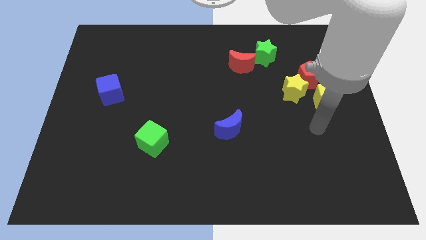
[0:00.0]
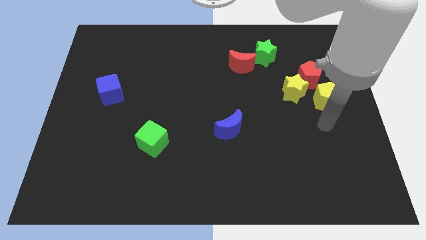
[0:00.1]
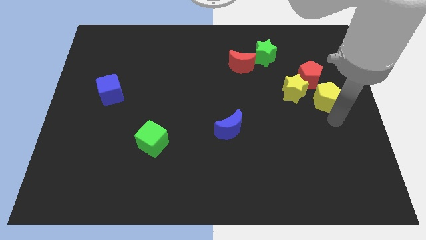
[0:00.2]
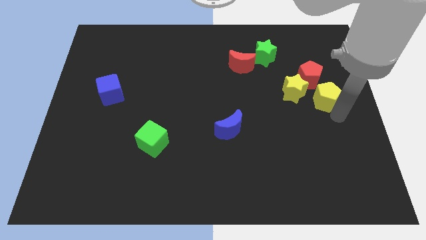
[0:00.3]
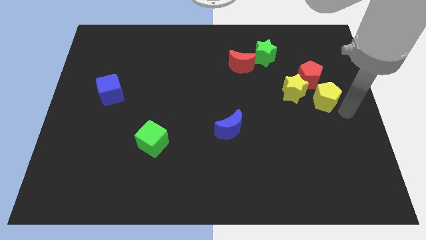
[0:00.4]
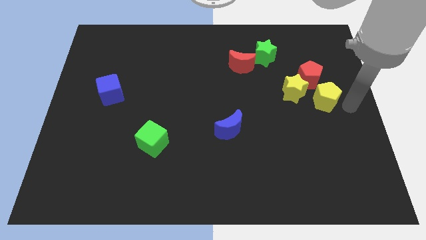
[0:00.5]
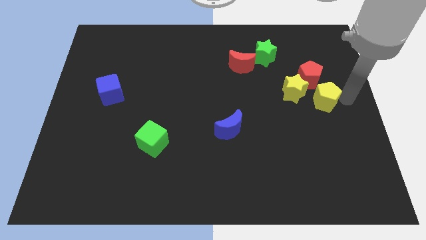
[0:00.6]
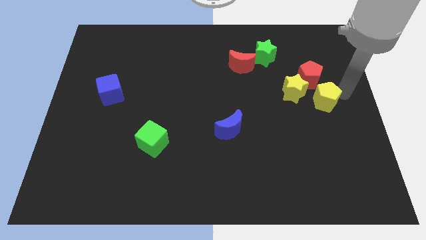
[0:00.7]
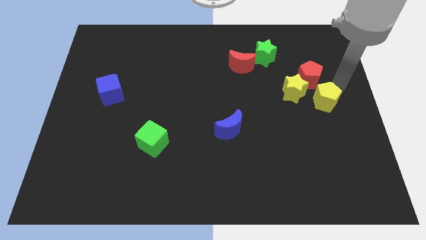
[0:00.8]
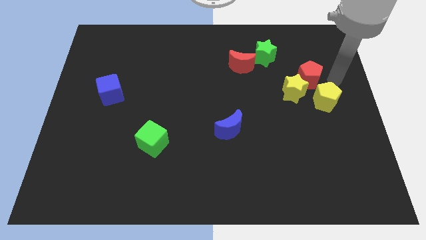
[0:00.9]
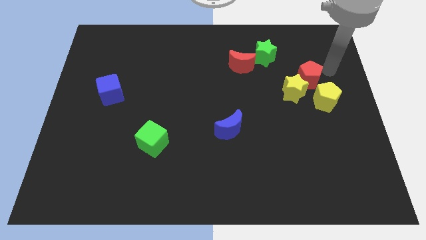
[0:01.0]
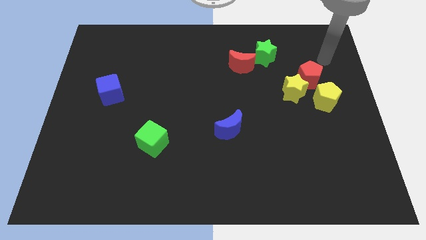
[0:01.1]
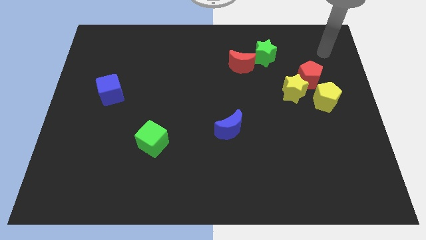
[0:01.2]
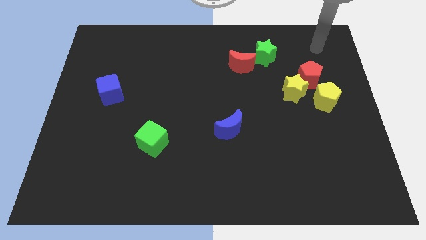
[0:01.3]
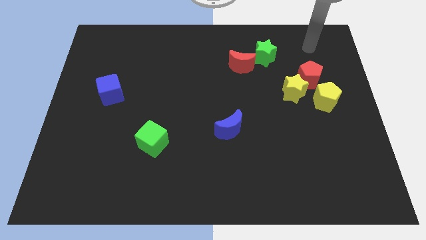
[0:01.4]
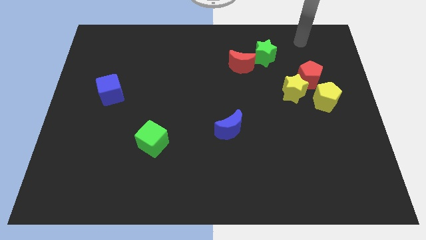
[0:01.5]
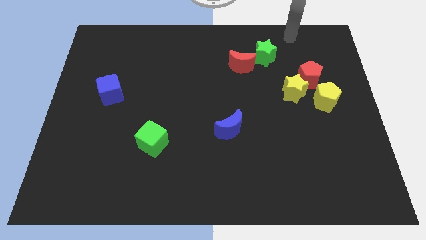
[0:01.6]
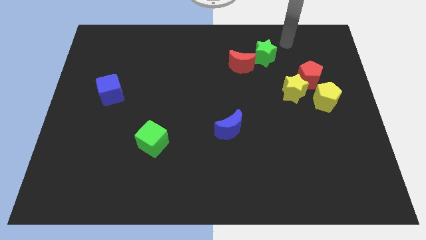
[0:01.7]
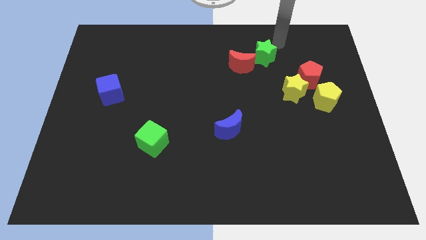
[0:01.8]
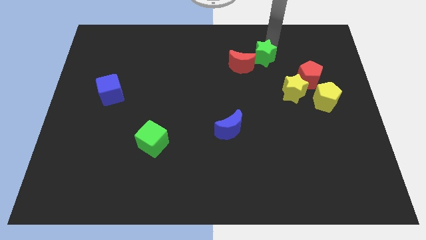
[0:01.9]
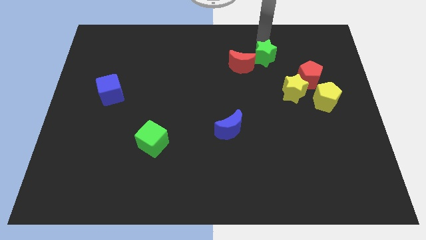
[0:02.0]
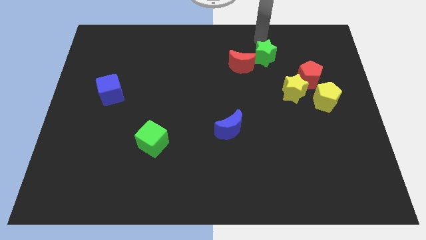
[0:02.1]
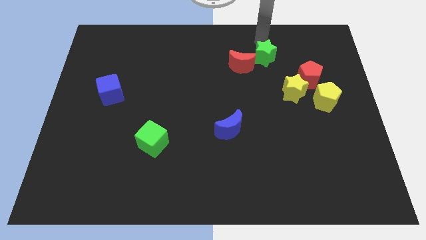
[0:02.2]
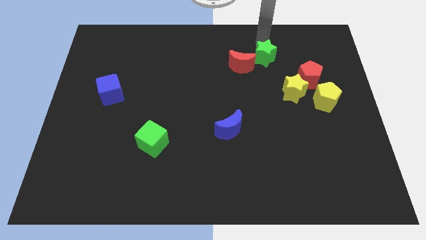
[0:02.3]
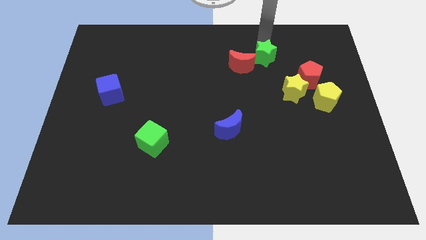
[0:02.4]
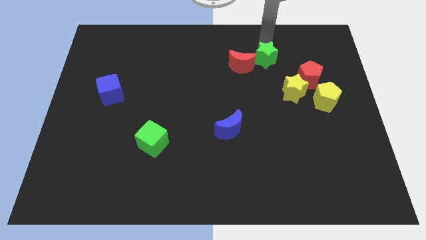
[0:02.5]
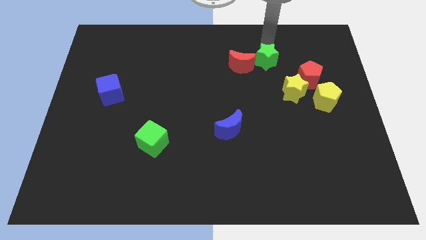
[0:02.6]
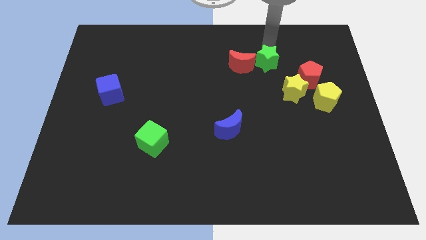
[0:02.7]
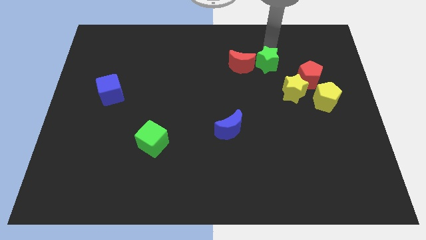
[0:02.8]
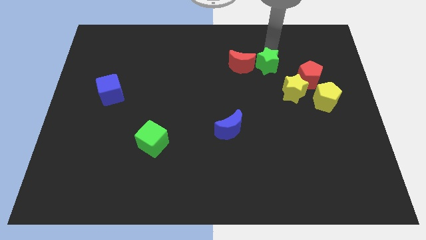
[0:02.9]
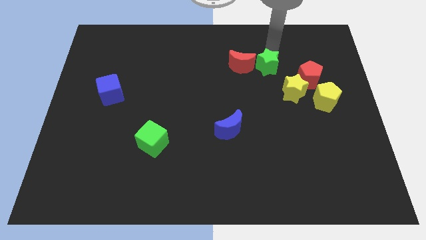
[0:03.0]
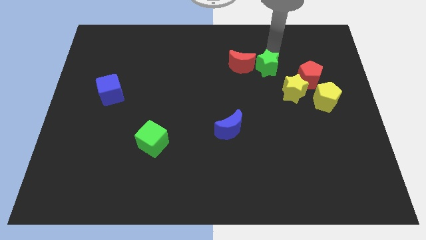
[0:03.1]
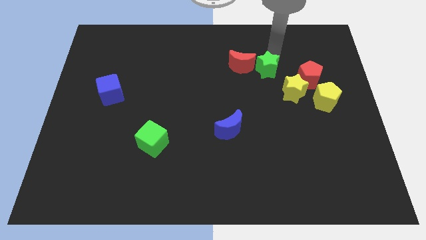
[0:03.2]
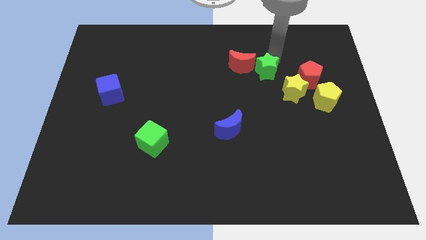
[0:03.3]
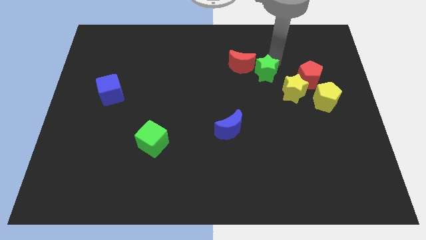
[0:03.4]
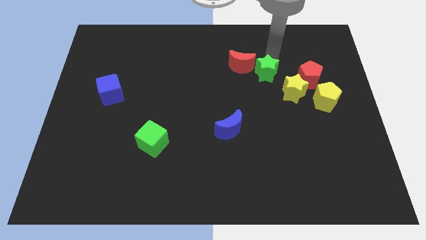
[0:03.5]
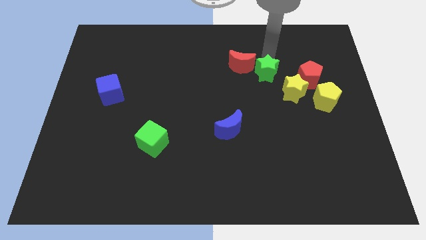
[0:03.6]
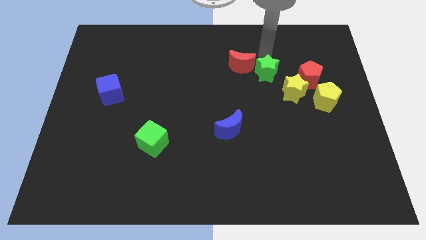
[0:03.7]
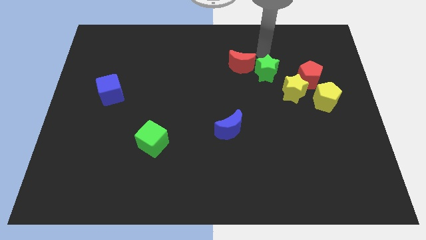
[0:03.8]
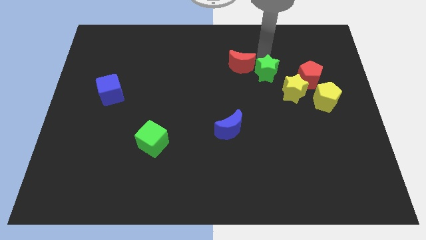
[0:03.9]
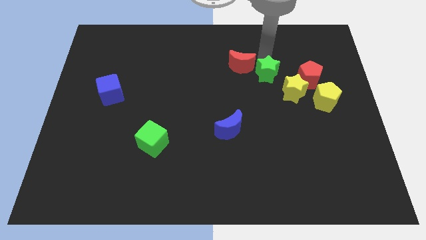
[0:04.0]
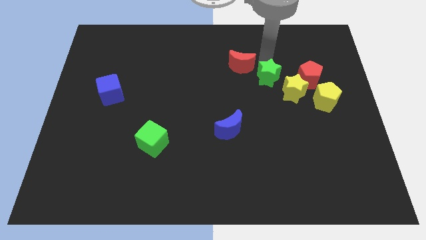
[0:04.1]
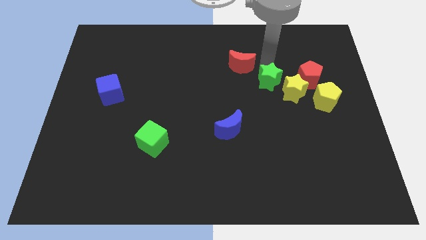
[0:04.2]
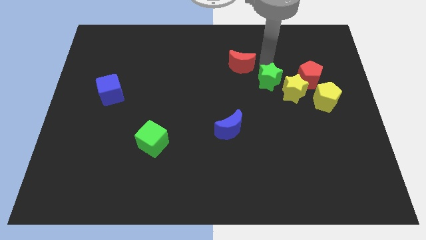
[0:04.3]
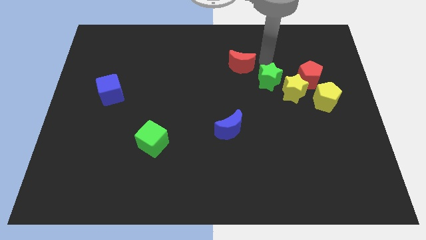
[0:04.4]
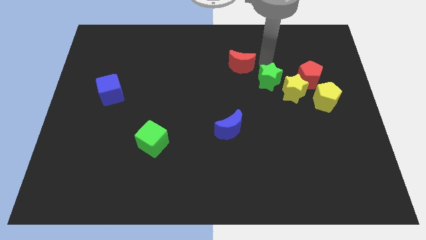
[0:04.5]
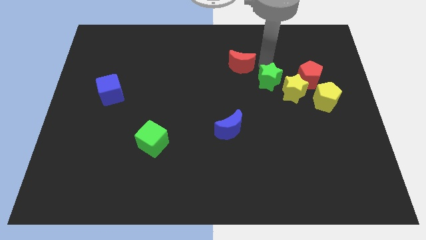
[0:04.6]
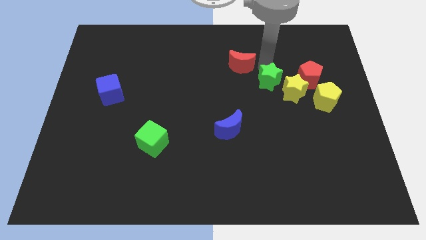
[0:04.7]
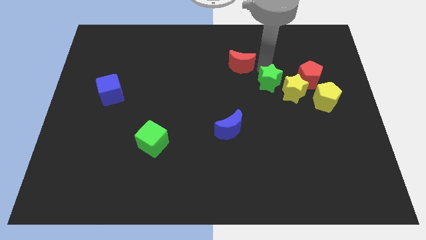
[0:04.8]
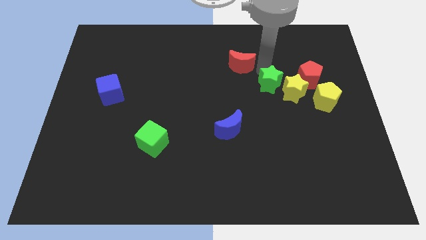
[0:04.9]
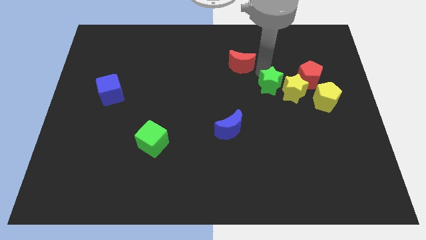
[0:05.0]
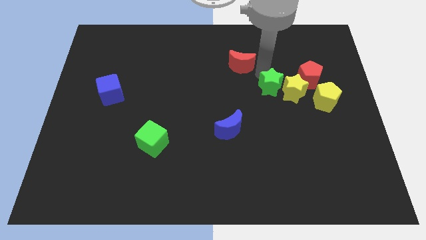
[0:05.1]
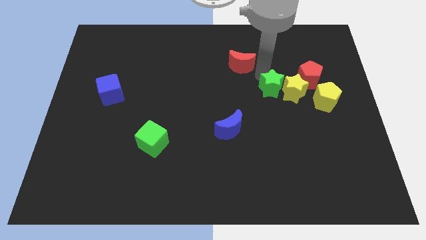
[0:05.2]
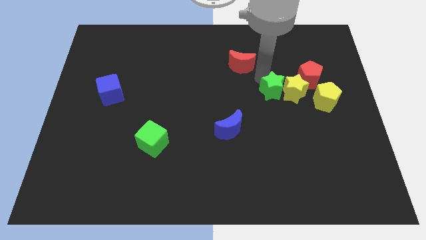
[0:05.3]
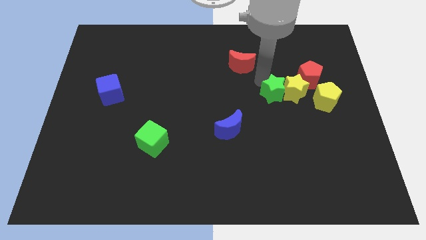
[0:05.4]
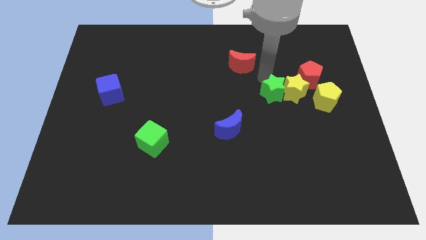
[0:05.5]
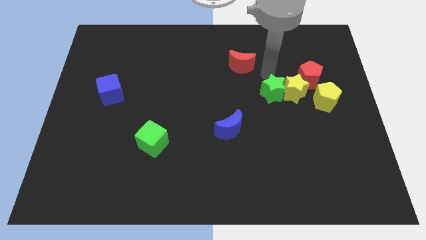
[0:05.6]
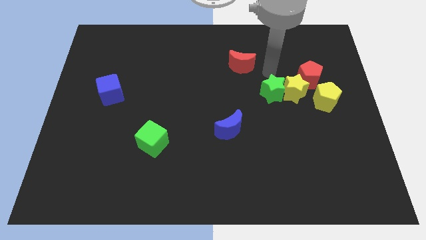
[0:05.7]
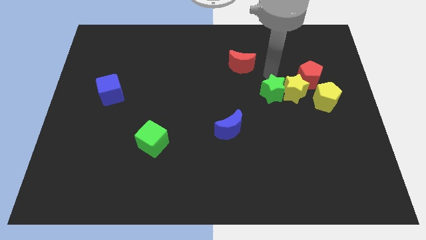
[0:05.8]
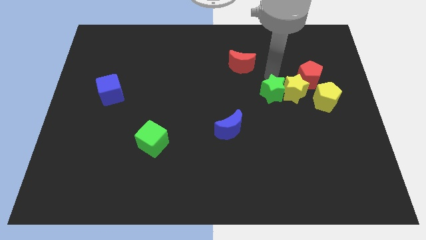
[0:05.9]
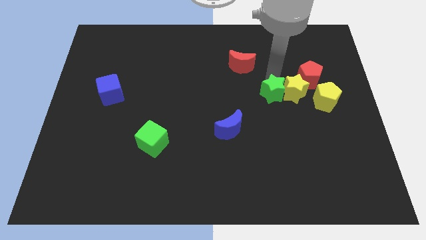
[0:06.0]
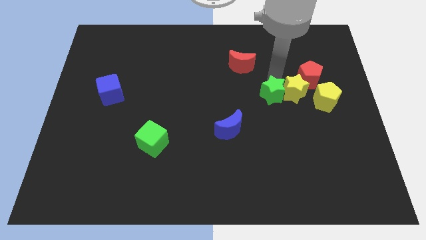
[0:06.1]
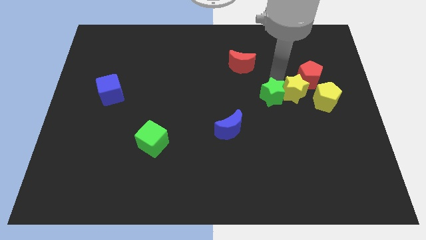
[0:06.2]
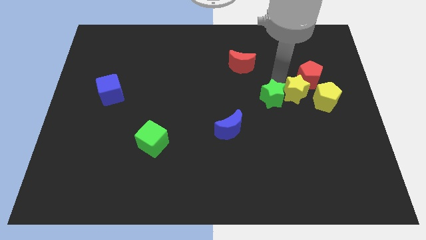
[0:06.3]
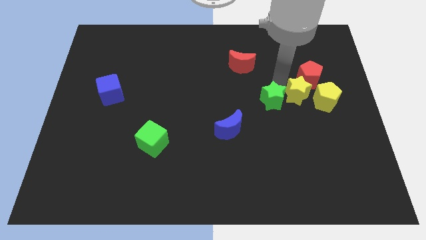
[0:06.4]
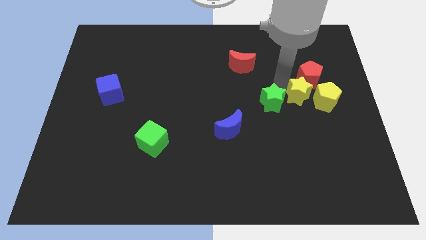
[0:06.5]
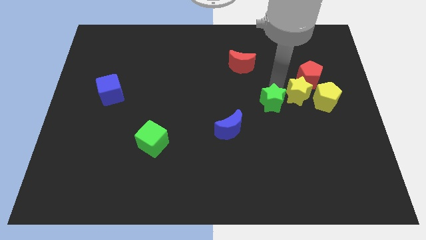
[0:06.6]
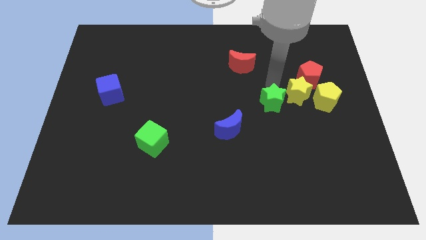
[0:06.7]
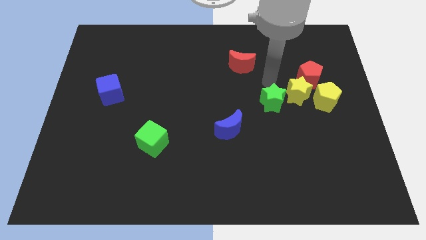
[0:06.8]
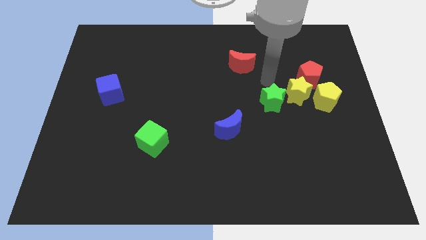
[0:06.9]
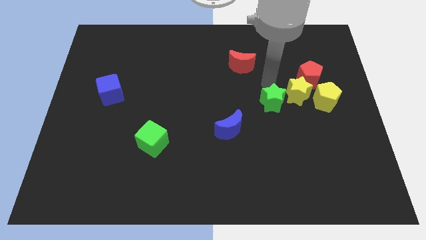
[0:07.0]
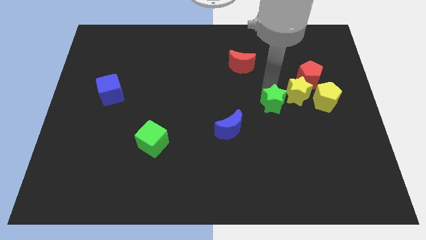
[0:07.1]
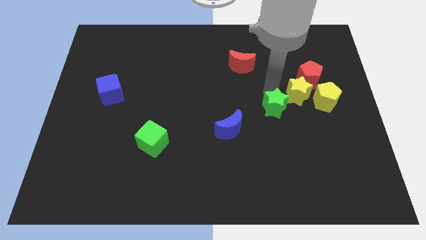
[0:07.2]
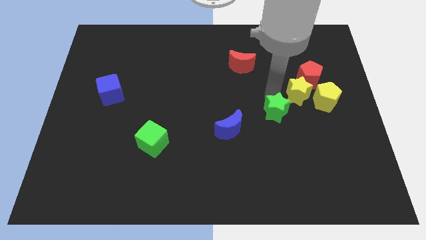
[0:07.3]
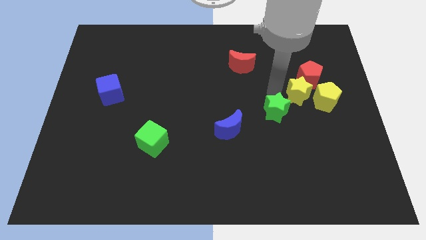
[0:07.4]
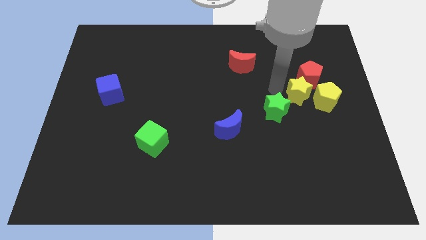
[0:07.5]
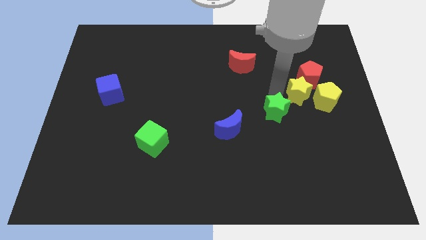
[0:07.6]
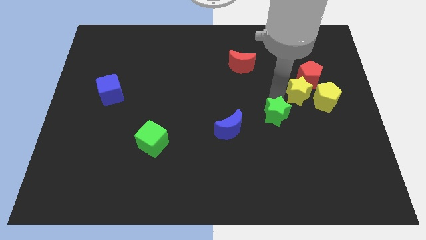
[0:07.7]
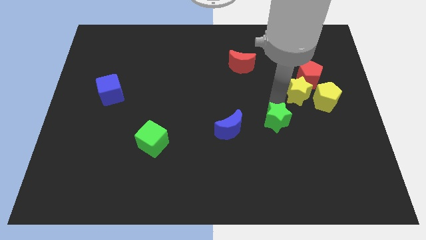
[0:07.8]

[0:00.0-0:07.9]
push the green star downwards

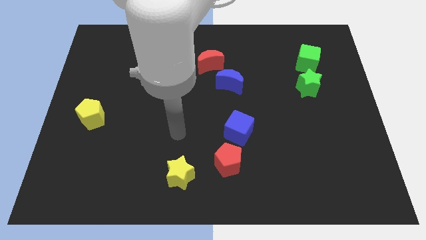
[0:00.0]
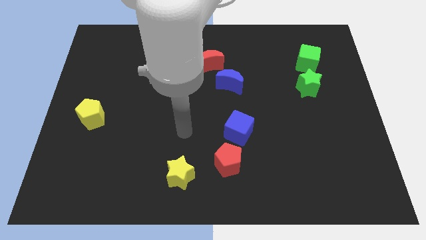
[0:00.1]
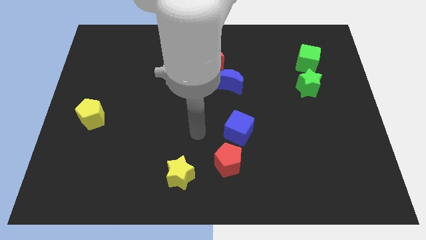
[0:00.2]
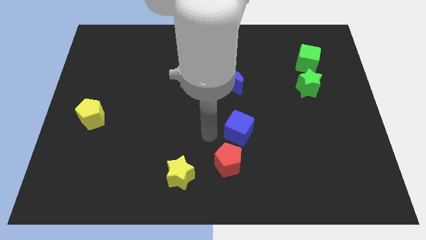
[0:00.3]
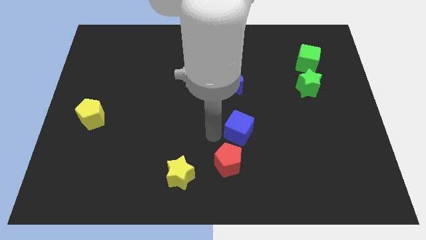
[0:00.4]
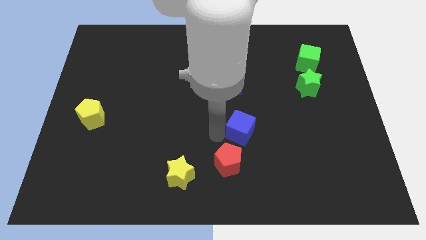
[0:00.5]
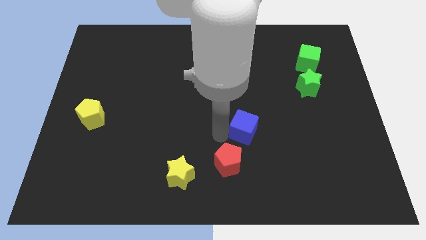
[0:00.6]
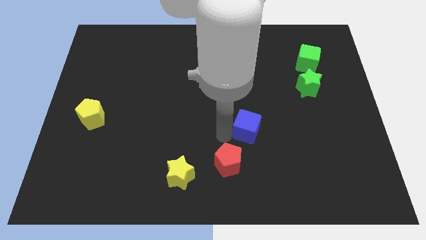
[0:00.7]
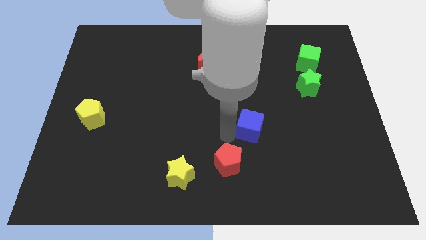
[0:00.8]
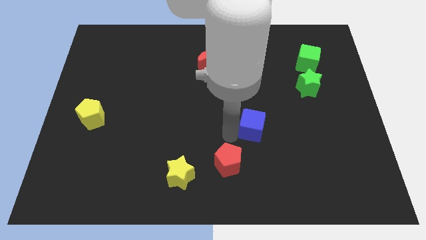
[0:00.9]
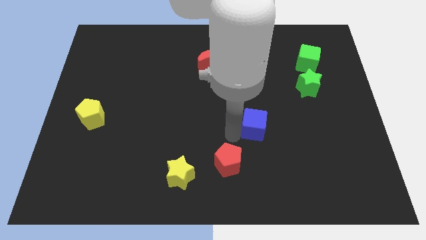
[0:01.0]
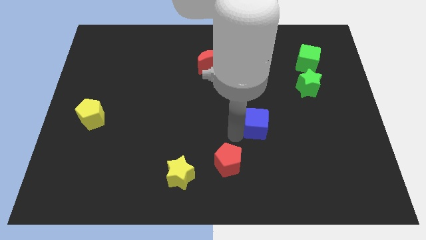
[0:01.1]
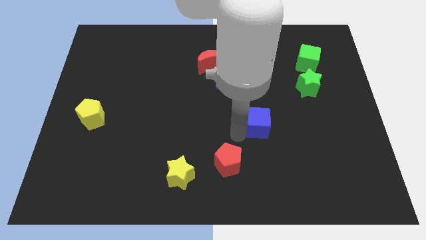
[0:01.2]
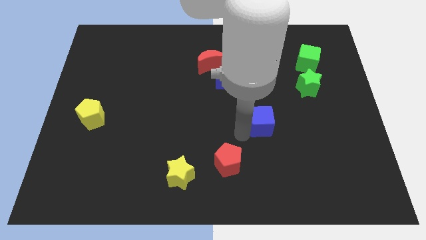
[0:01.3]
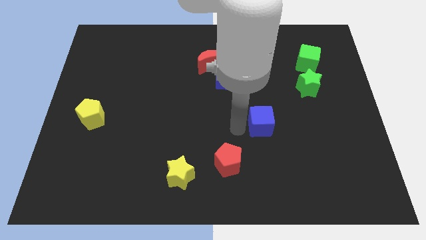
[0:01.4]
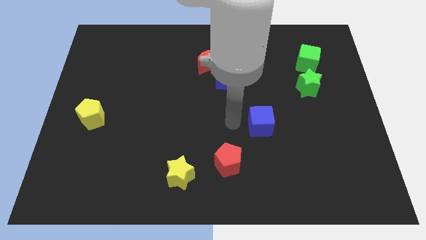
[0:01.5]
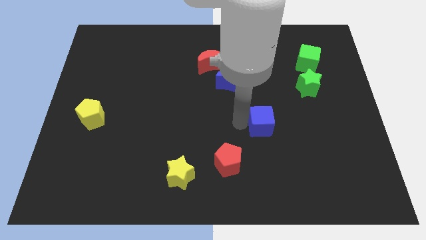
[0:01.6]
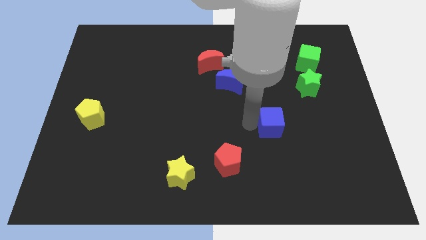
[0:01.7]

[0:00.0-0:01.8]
slightly move the blue cube right
